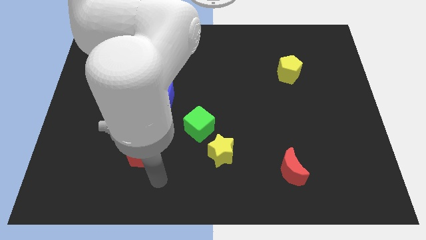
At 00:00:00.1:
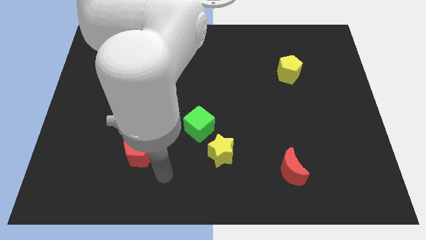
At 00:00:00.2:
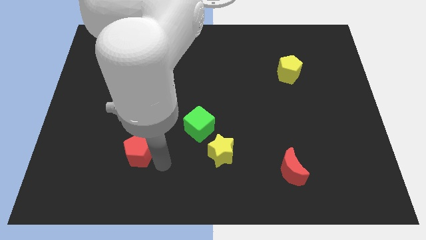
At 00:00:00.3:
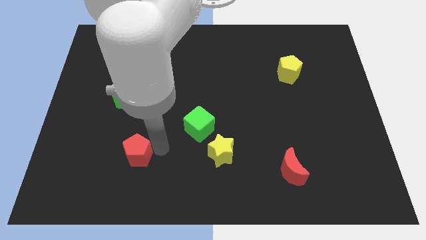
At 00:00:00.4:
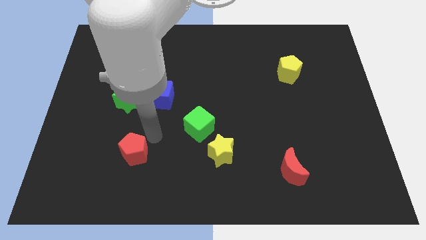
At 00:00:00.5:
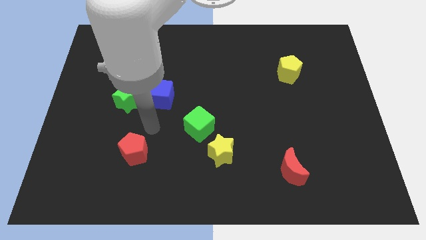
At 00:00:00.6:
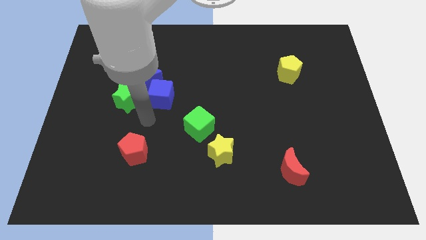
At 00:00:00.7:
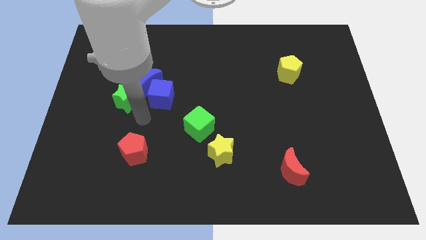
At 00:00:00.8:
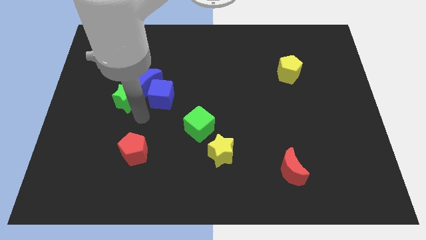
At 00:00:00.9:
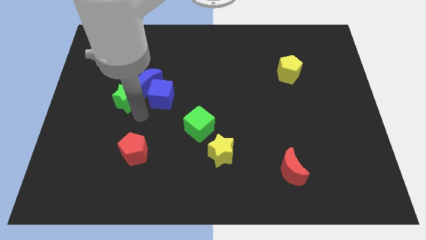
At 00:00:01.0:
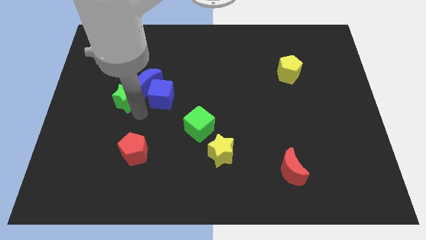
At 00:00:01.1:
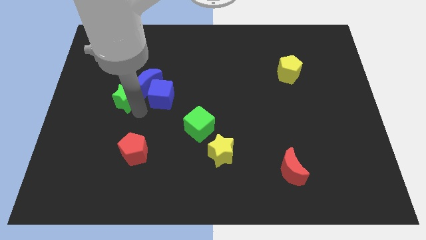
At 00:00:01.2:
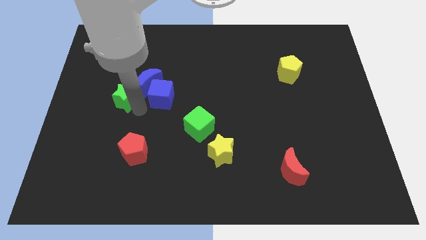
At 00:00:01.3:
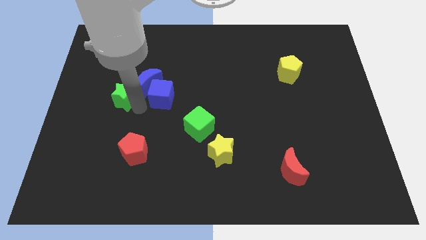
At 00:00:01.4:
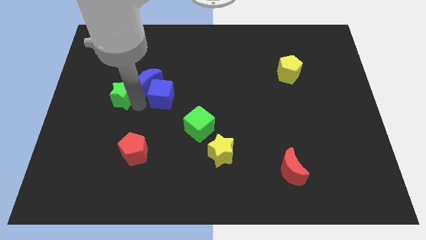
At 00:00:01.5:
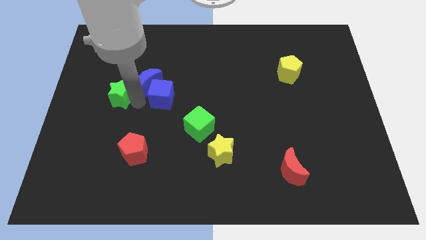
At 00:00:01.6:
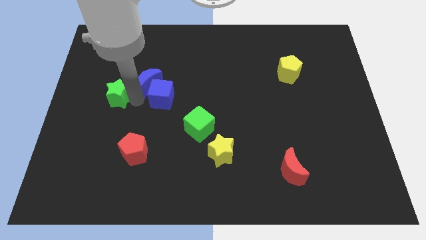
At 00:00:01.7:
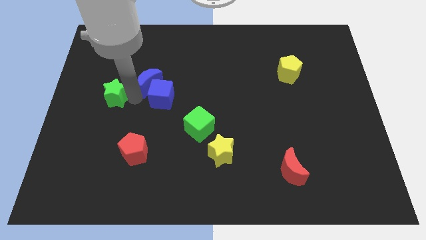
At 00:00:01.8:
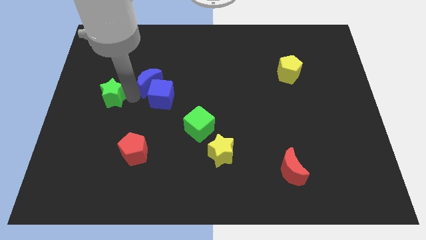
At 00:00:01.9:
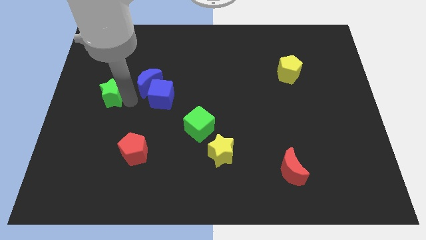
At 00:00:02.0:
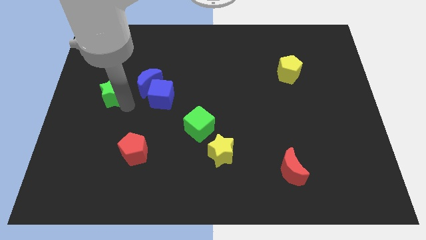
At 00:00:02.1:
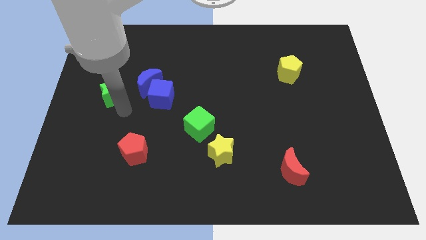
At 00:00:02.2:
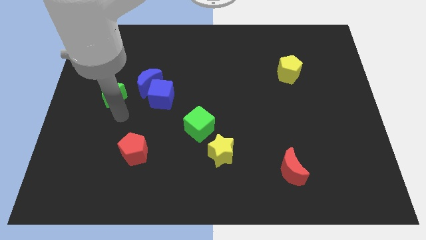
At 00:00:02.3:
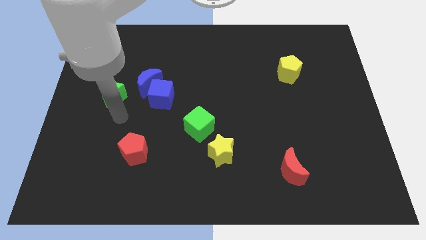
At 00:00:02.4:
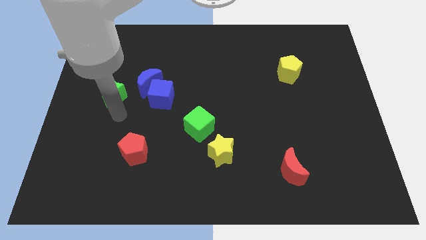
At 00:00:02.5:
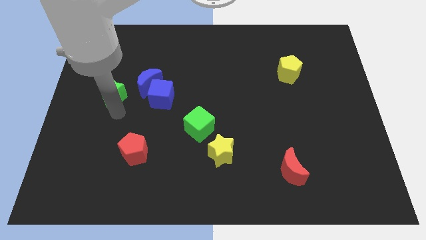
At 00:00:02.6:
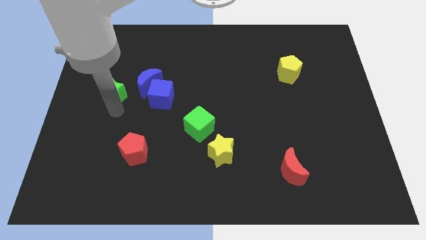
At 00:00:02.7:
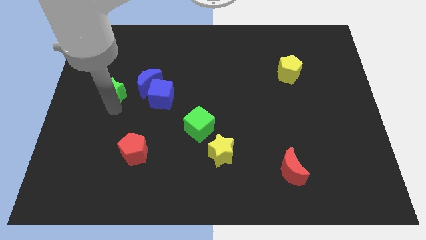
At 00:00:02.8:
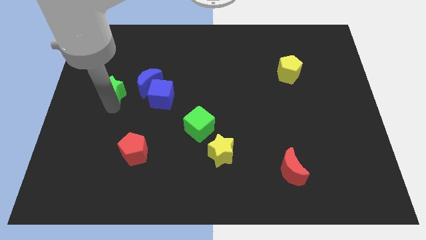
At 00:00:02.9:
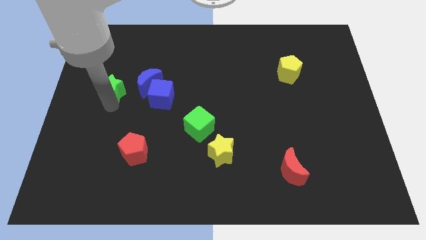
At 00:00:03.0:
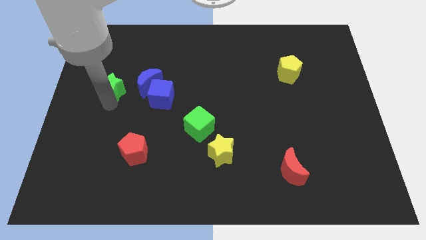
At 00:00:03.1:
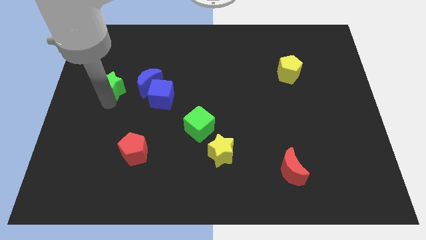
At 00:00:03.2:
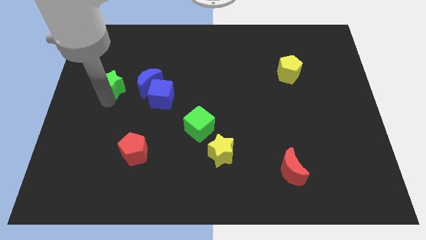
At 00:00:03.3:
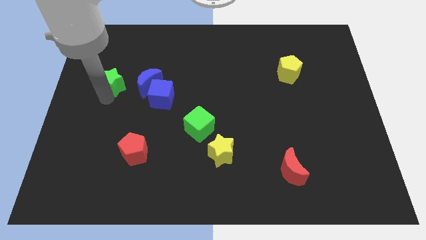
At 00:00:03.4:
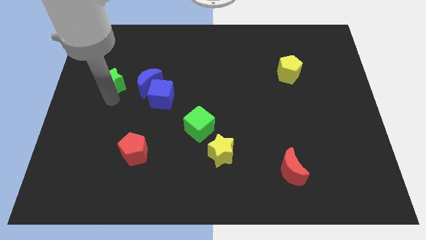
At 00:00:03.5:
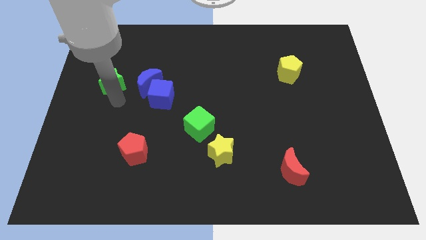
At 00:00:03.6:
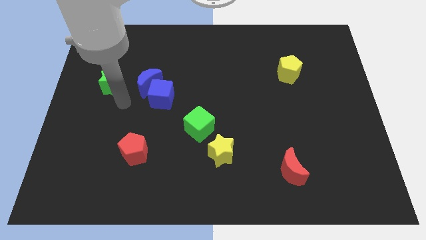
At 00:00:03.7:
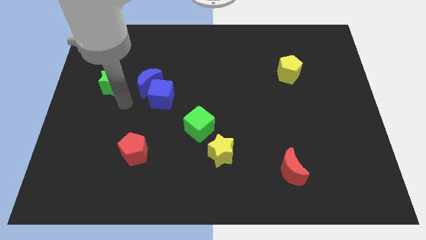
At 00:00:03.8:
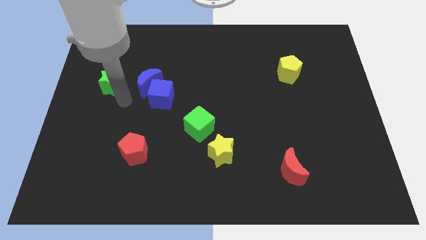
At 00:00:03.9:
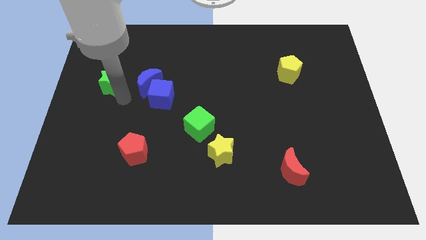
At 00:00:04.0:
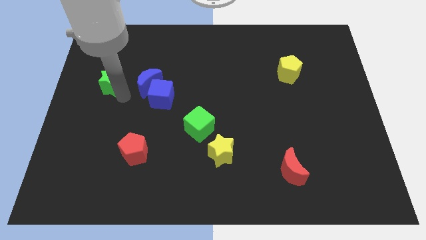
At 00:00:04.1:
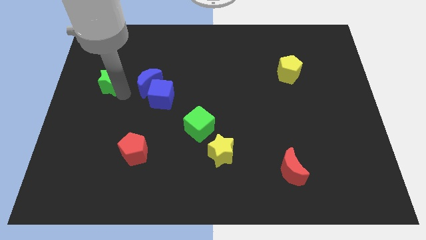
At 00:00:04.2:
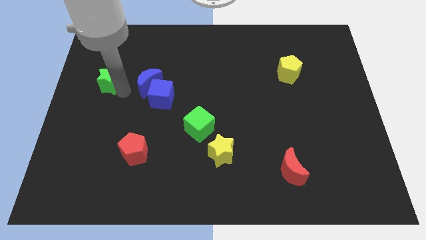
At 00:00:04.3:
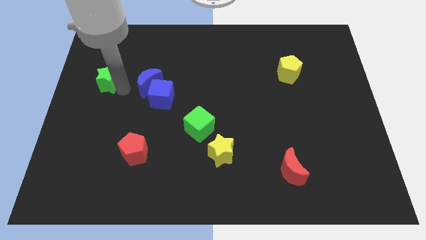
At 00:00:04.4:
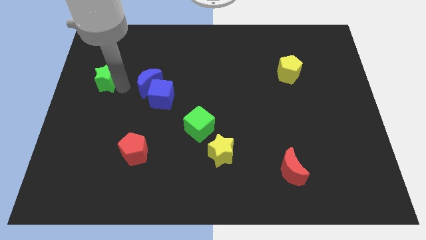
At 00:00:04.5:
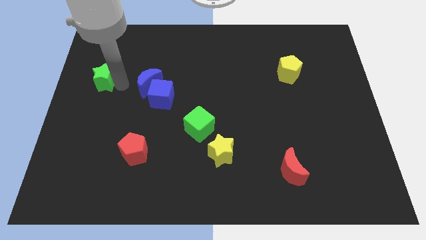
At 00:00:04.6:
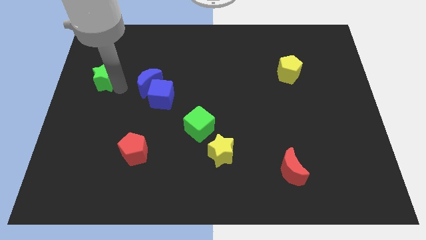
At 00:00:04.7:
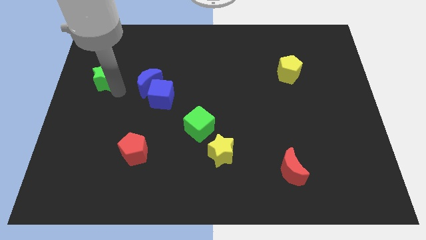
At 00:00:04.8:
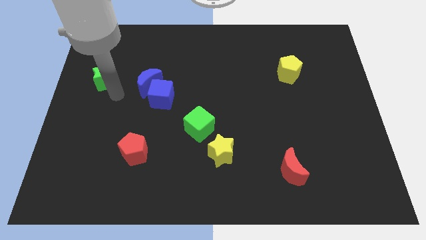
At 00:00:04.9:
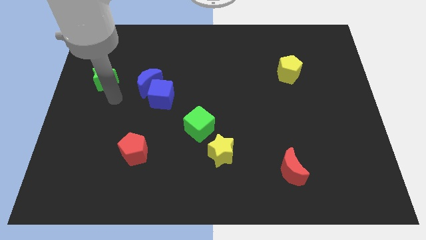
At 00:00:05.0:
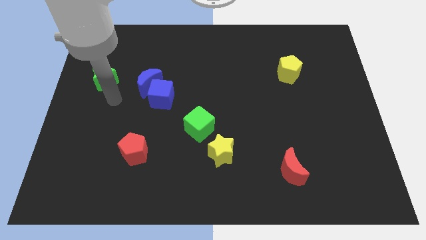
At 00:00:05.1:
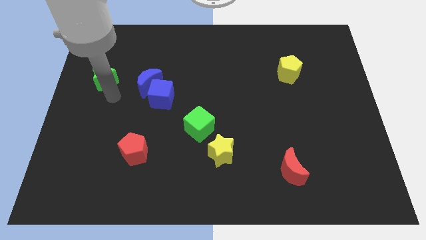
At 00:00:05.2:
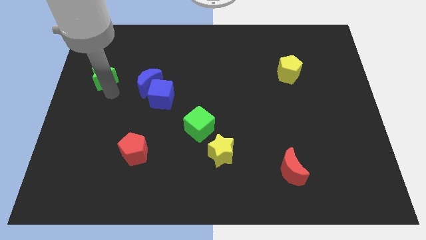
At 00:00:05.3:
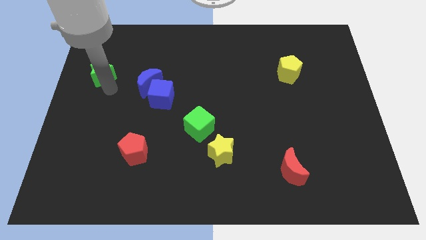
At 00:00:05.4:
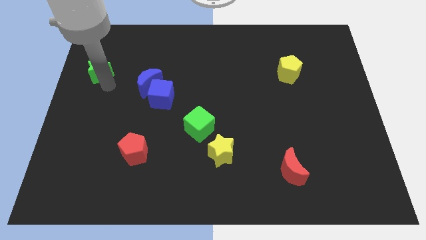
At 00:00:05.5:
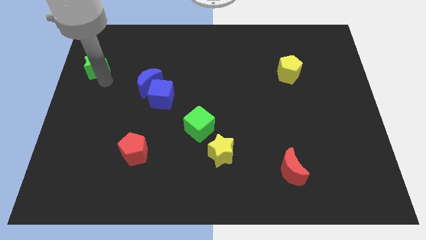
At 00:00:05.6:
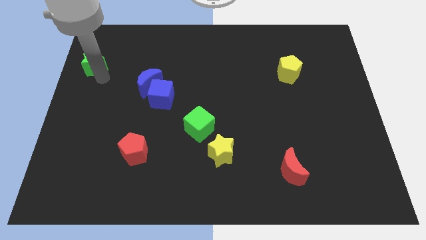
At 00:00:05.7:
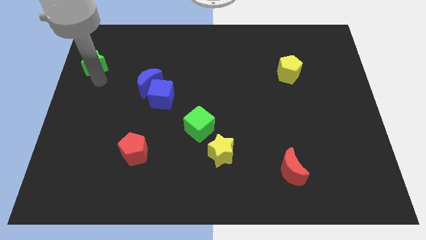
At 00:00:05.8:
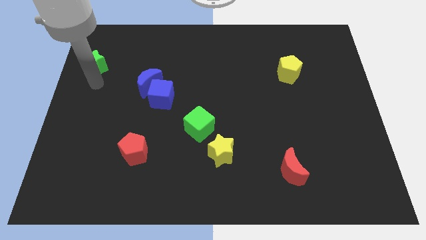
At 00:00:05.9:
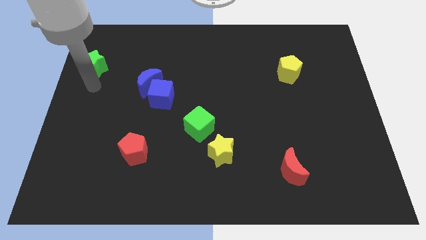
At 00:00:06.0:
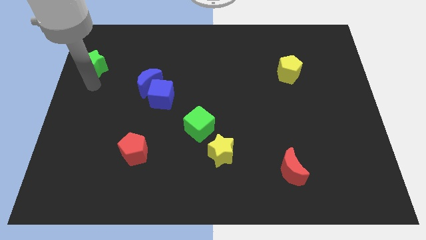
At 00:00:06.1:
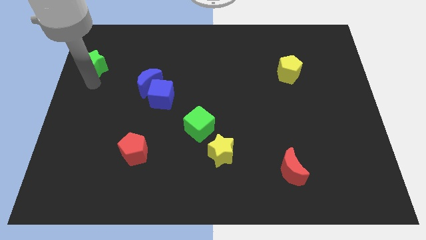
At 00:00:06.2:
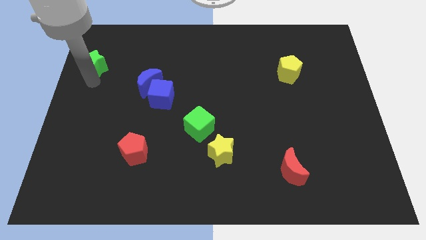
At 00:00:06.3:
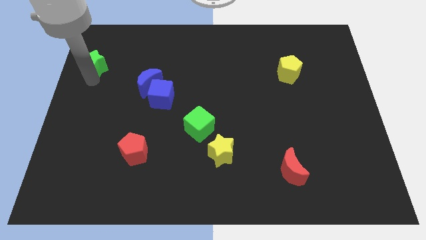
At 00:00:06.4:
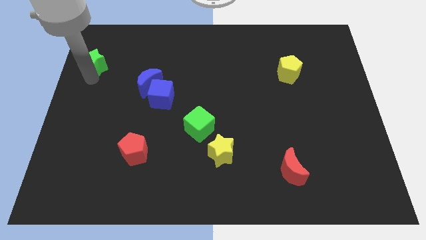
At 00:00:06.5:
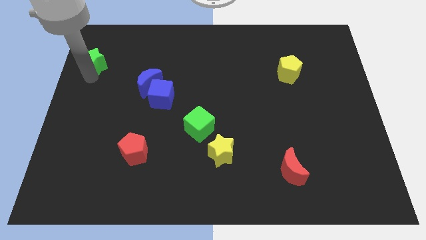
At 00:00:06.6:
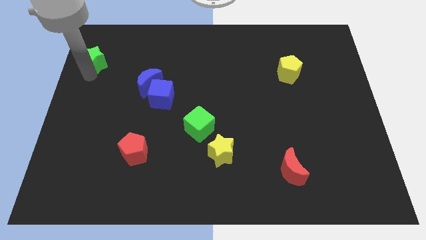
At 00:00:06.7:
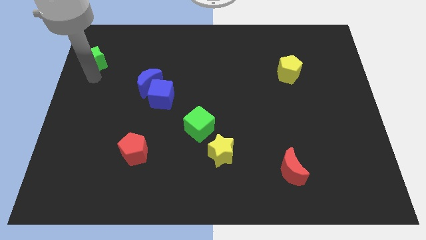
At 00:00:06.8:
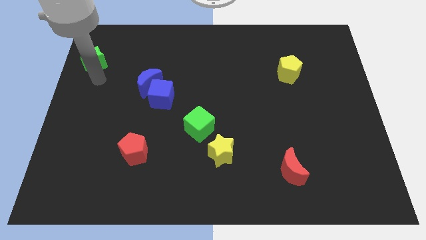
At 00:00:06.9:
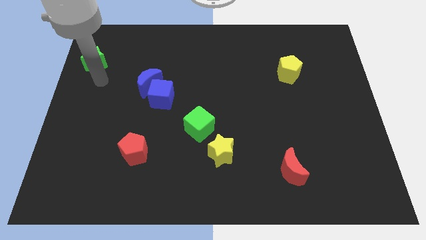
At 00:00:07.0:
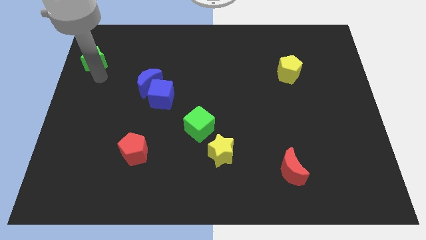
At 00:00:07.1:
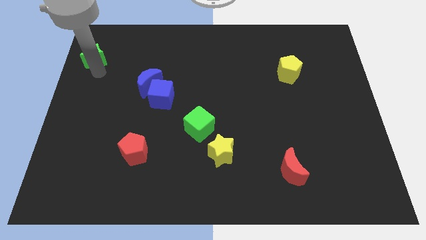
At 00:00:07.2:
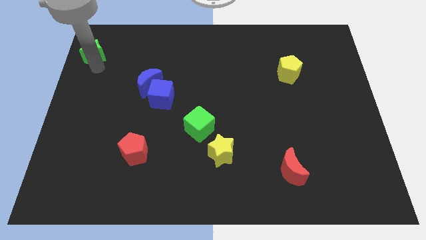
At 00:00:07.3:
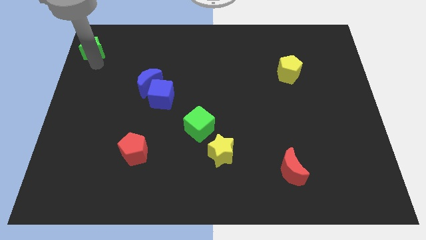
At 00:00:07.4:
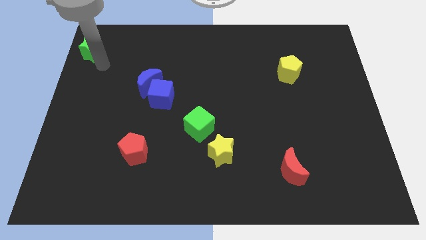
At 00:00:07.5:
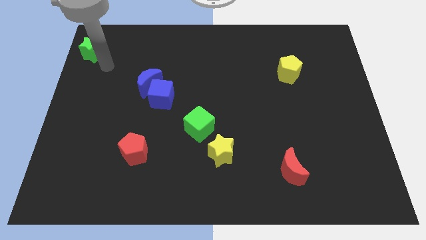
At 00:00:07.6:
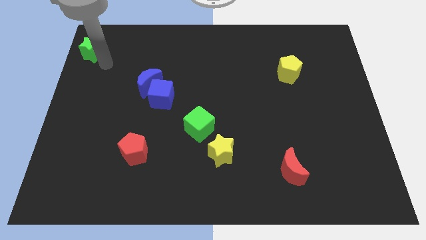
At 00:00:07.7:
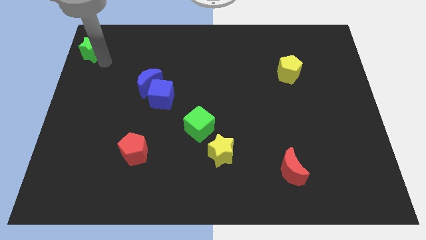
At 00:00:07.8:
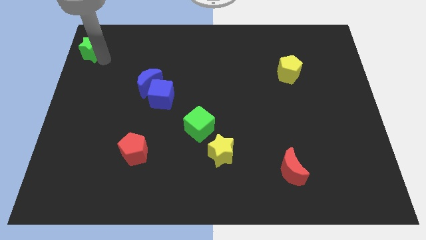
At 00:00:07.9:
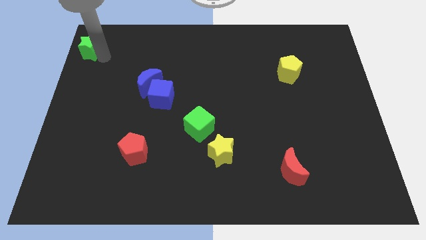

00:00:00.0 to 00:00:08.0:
slide the green star to the top left
